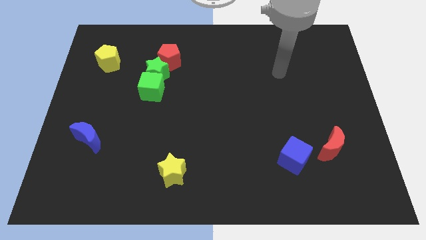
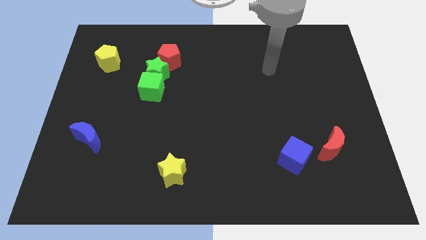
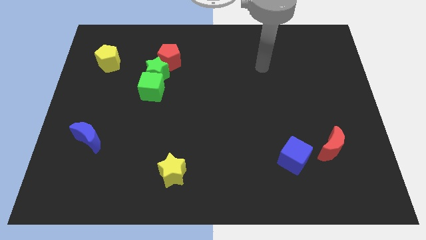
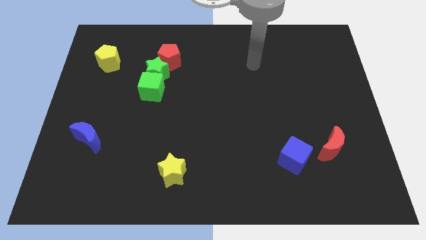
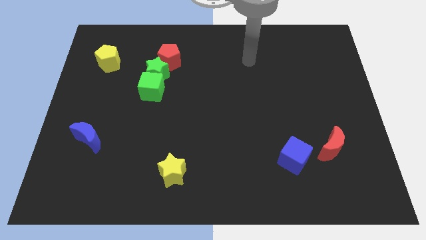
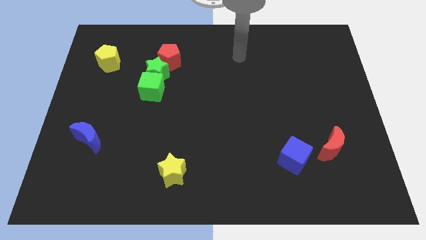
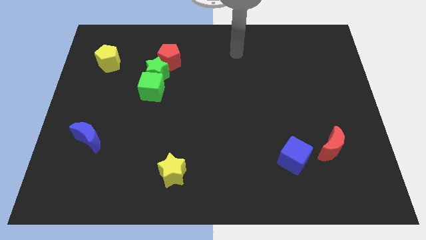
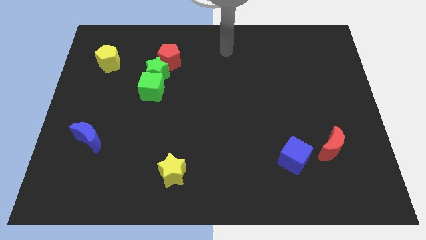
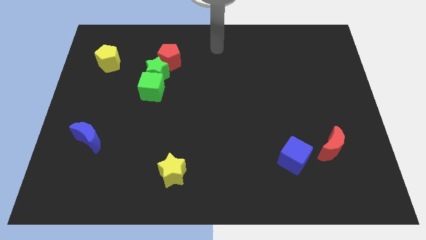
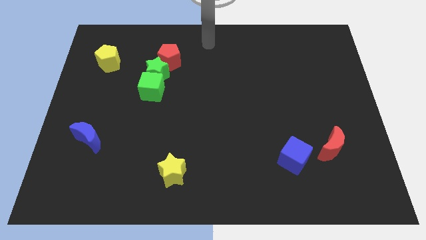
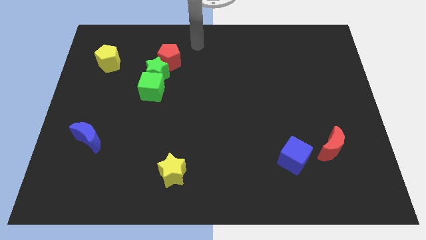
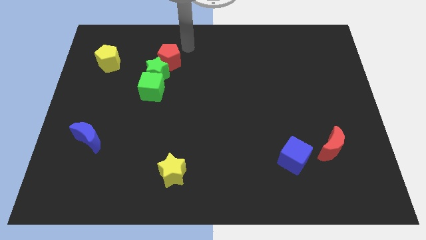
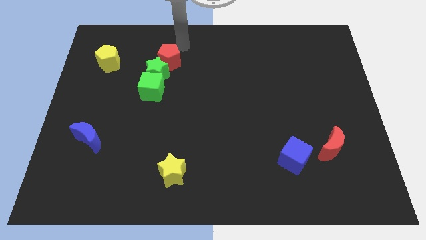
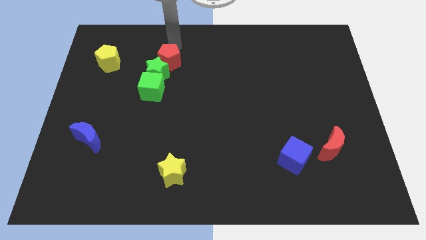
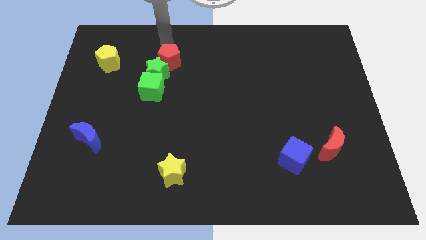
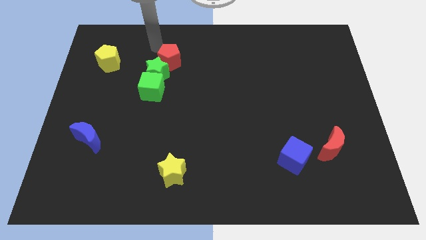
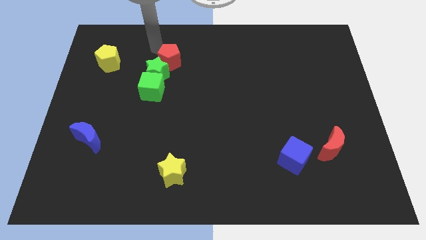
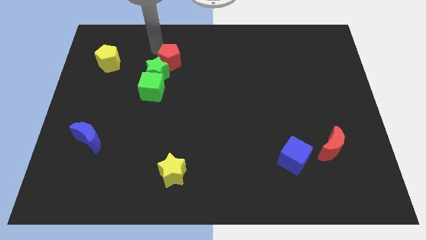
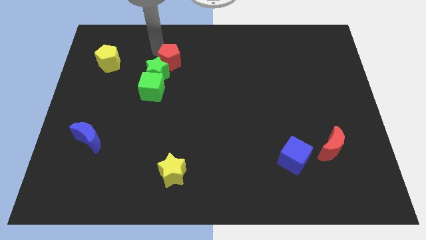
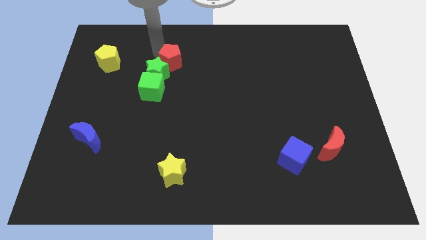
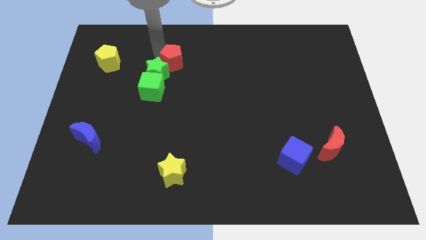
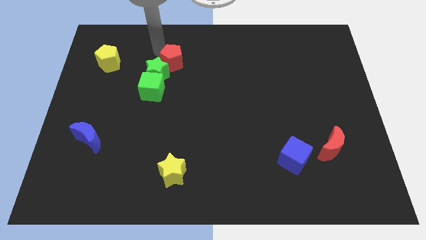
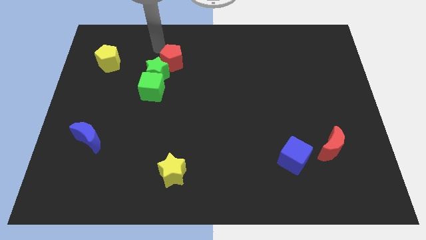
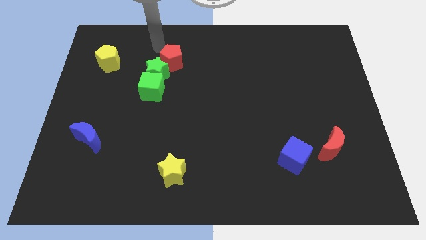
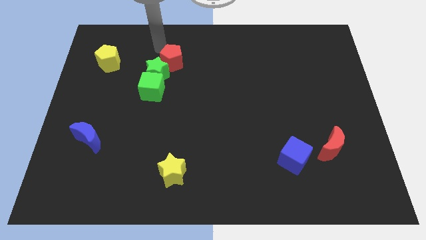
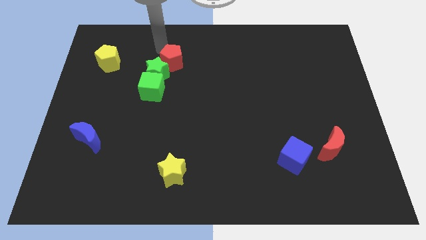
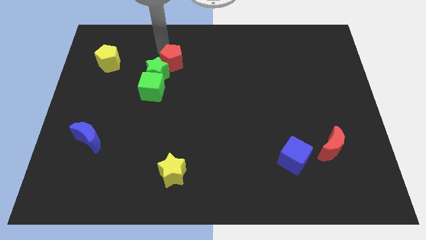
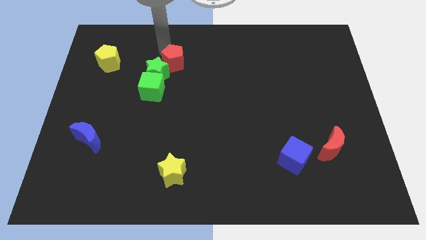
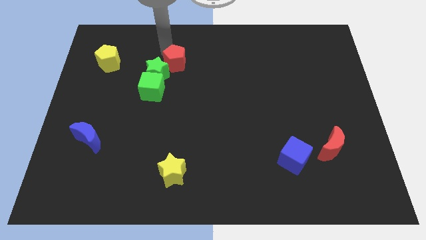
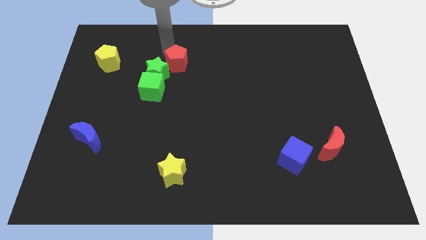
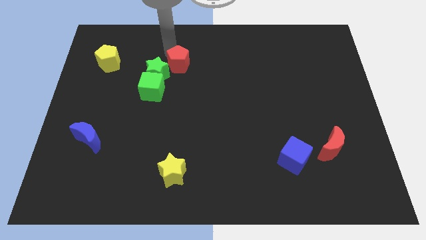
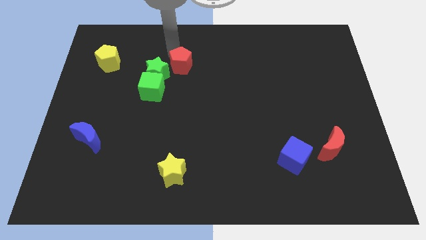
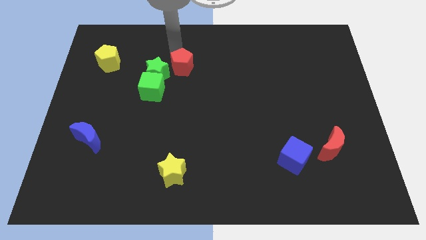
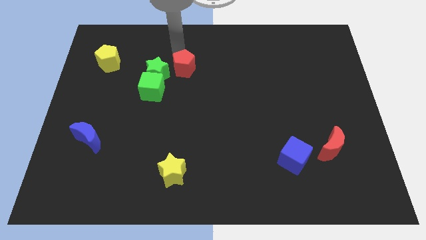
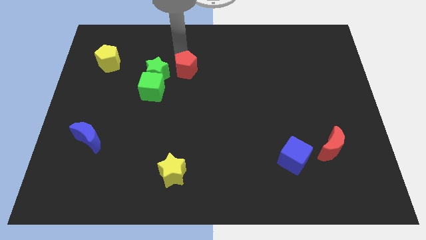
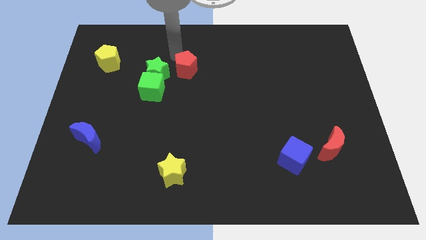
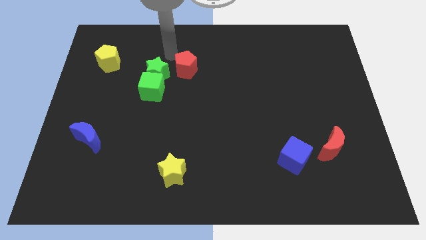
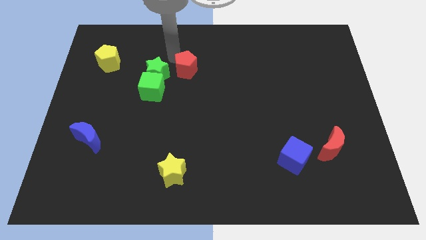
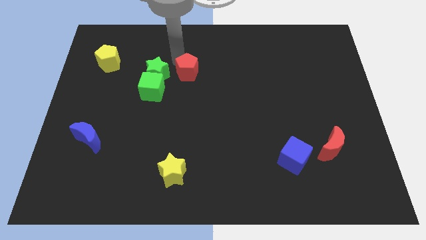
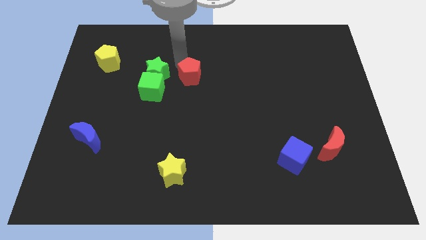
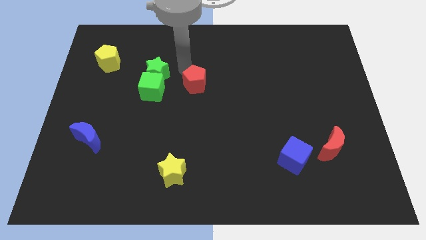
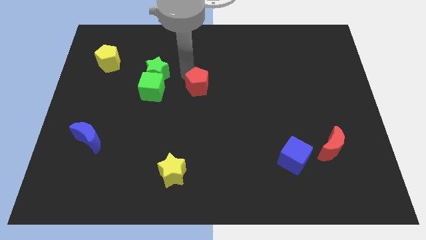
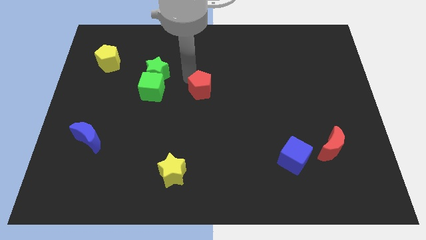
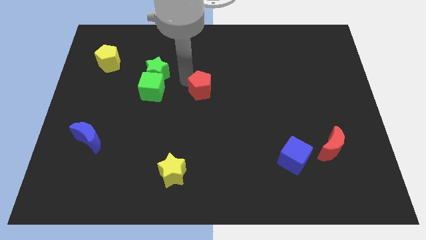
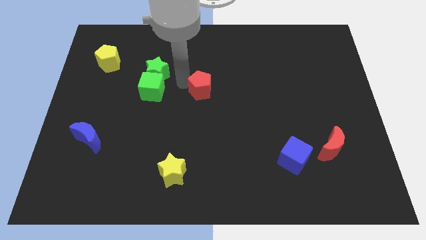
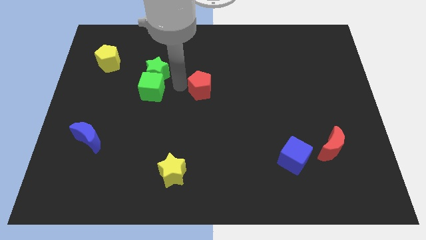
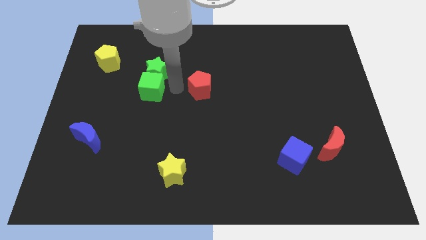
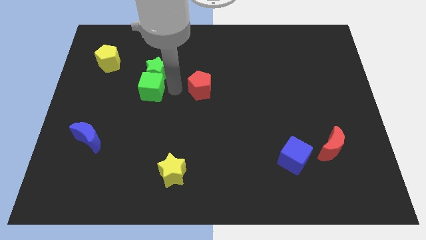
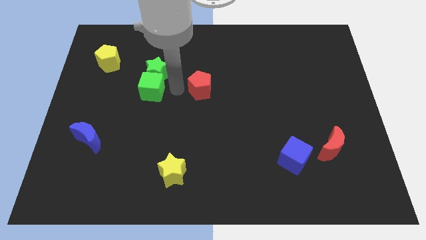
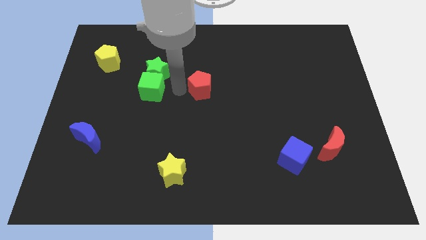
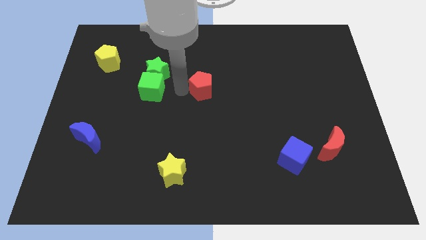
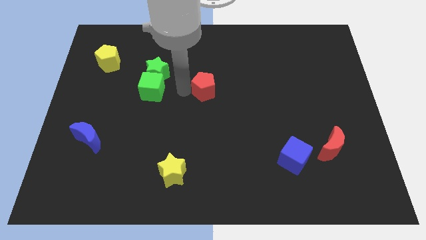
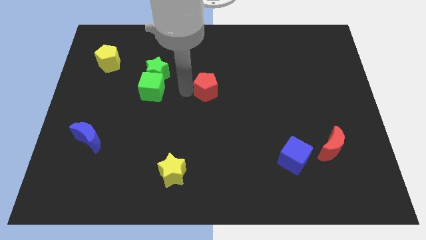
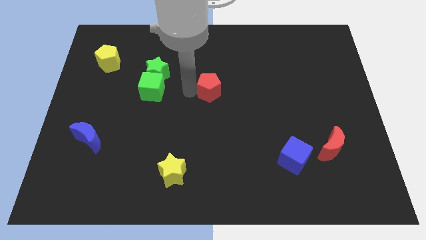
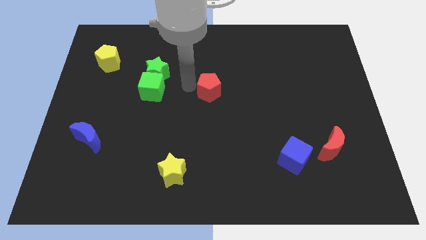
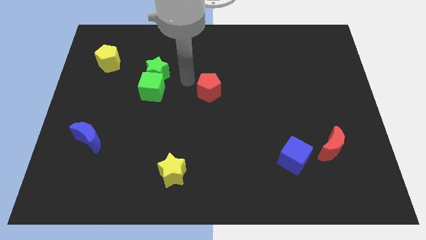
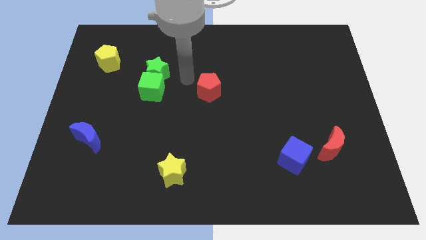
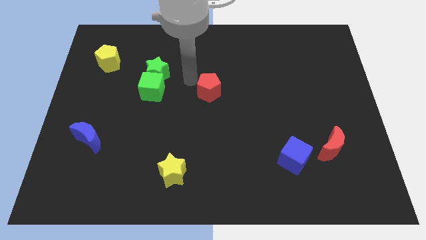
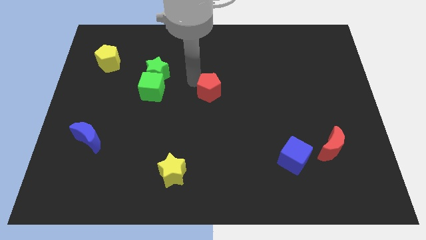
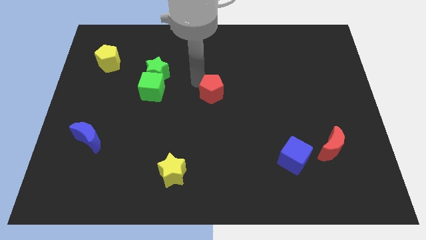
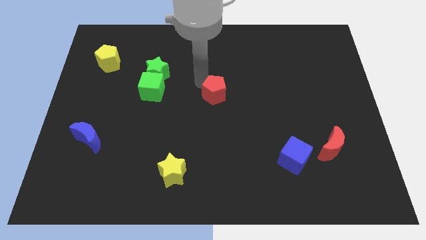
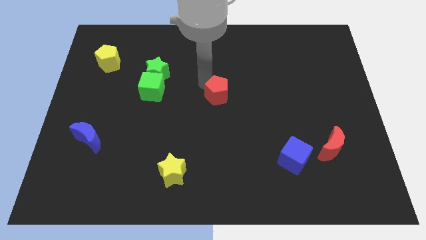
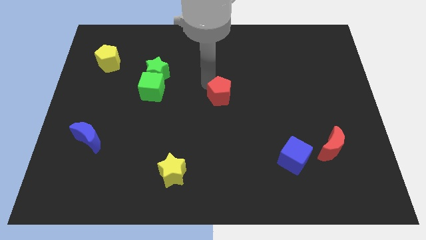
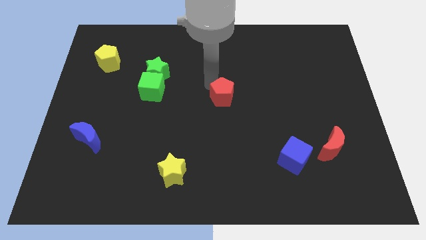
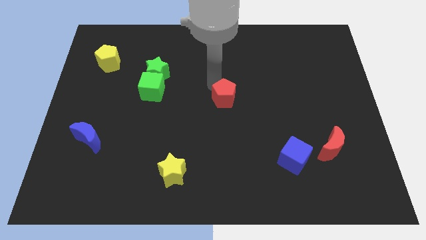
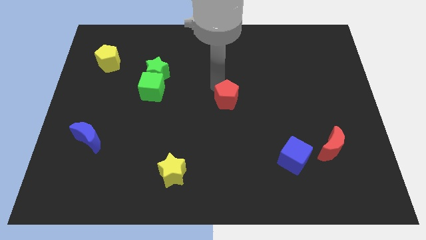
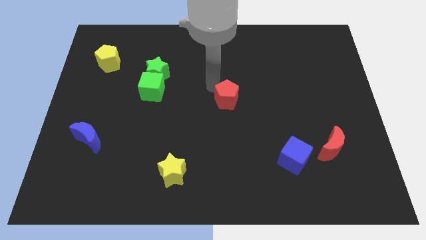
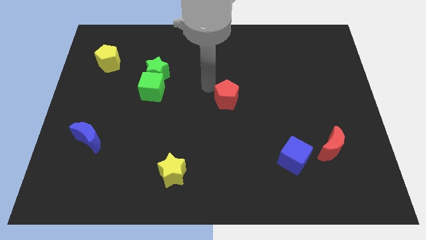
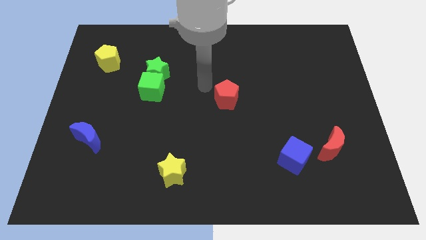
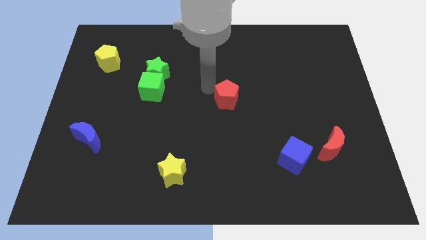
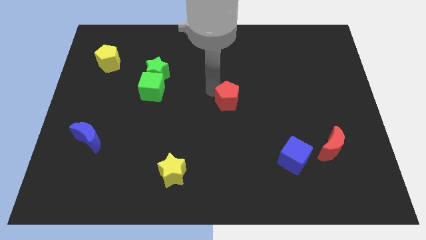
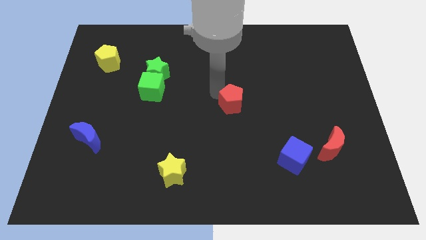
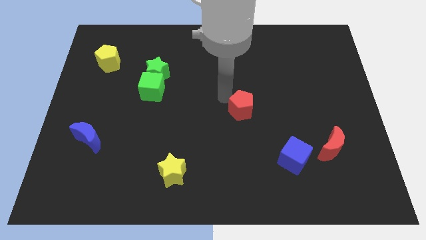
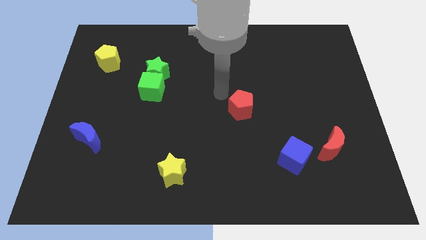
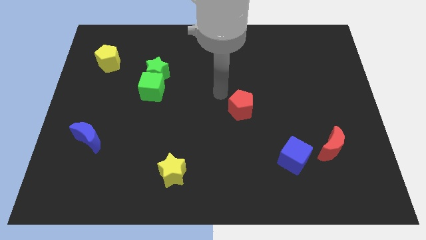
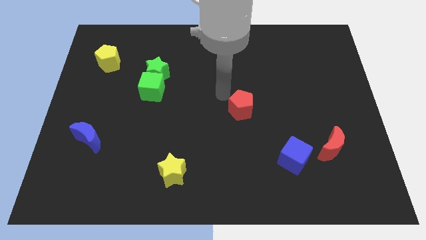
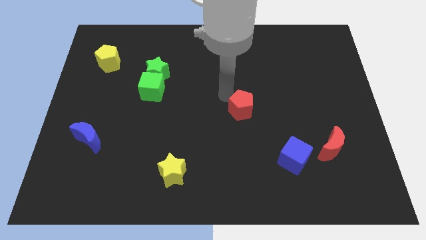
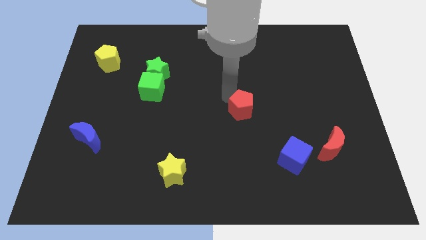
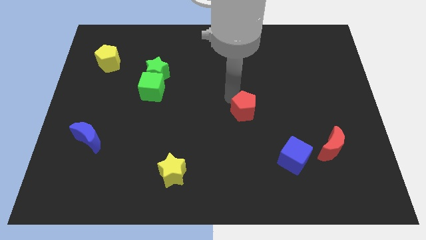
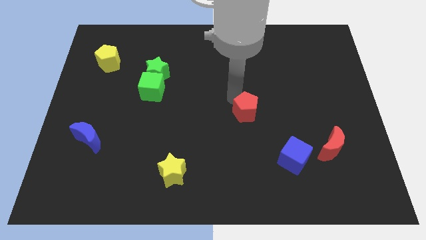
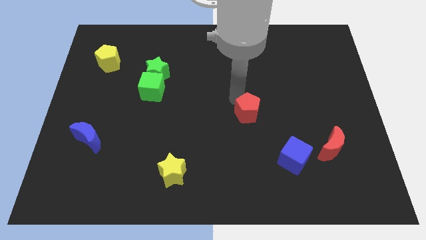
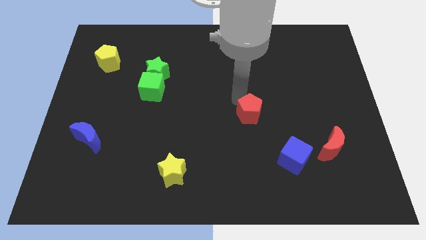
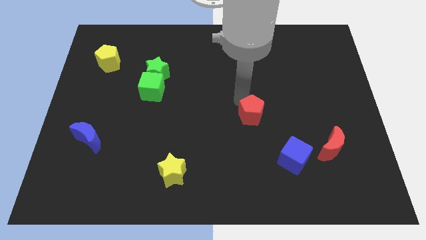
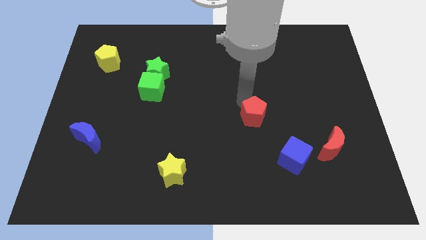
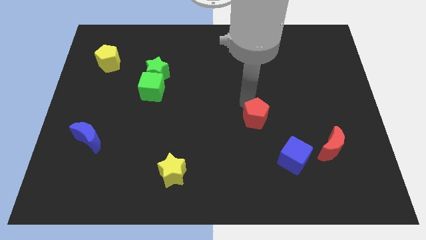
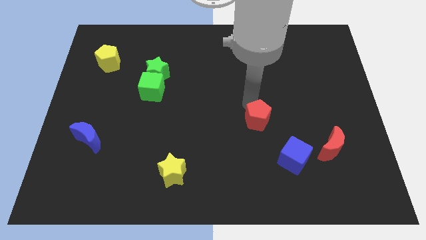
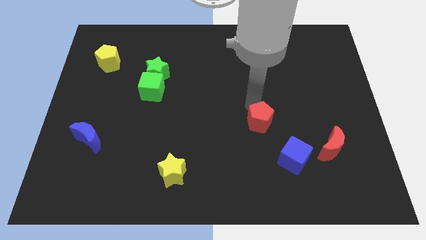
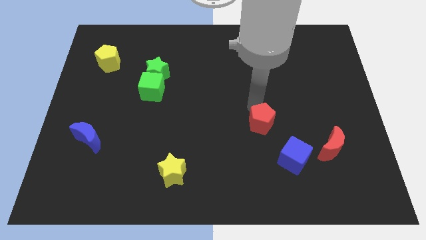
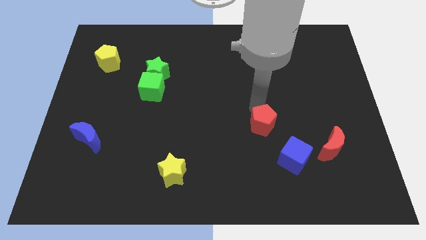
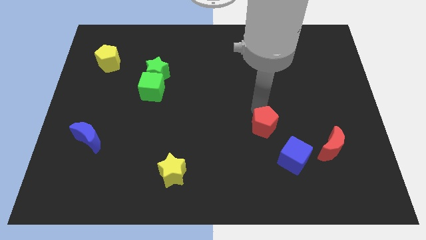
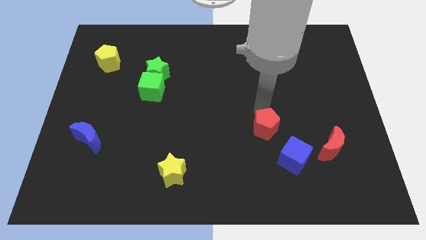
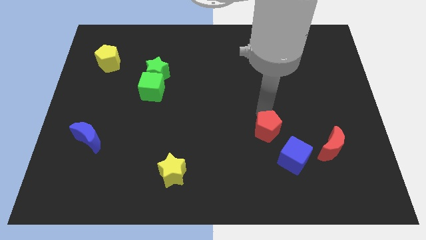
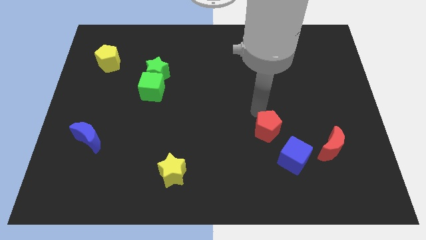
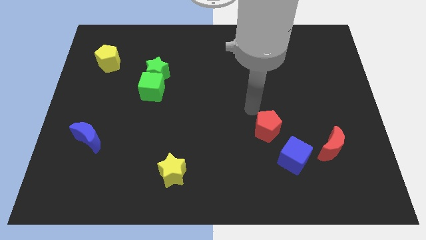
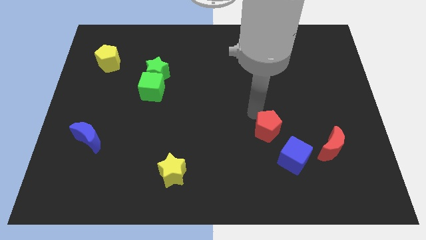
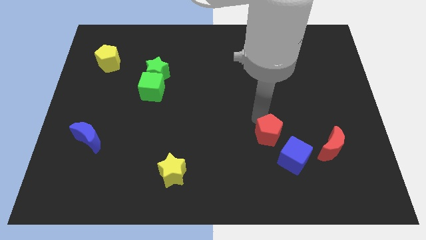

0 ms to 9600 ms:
slide the red pentagon left of the red moon
